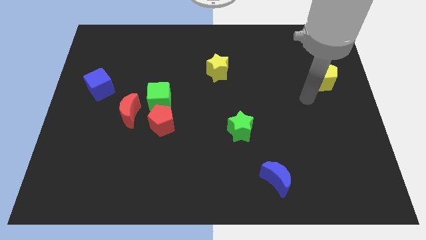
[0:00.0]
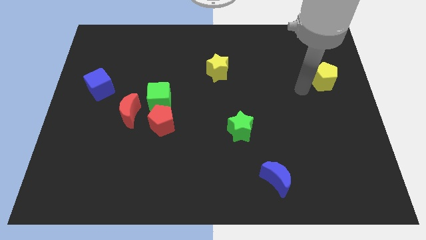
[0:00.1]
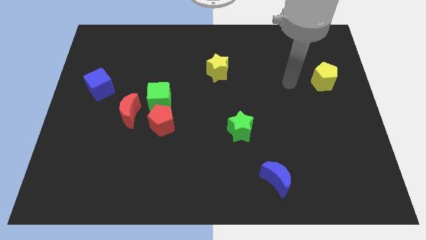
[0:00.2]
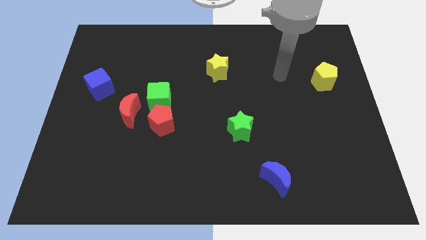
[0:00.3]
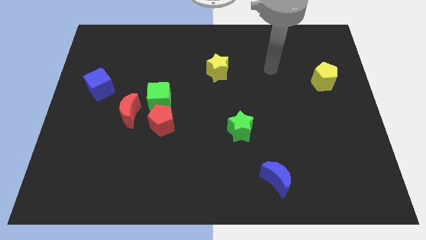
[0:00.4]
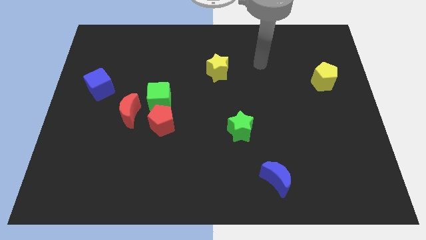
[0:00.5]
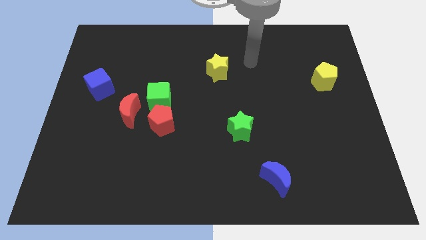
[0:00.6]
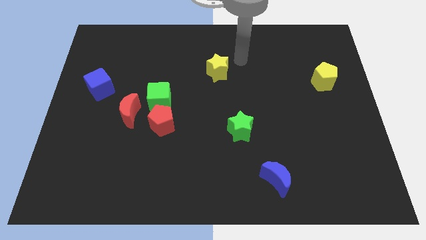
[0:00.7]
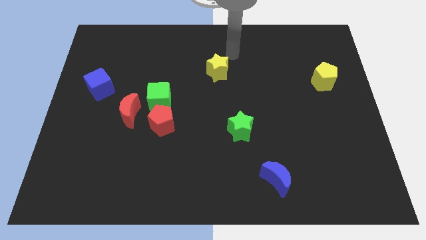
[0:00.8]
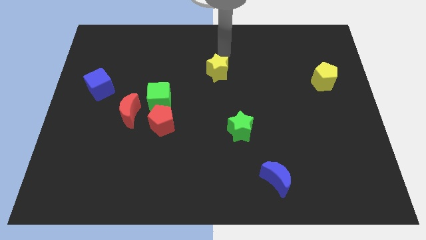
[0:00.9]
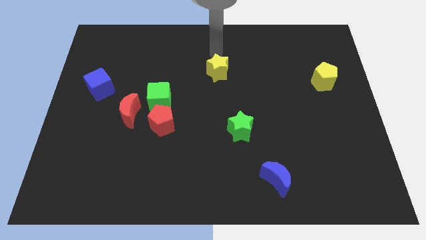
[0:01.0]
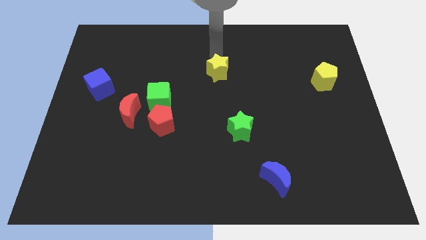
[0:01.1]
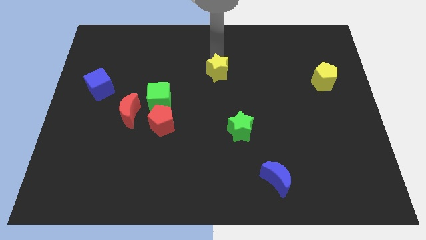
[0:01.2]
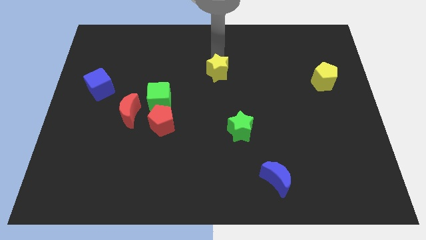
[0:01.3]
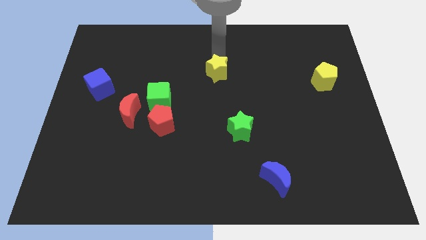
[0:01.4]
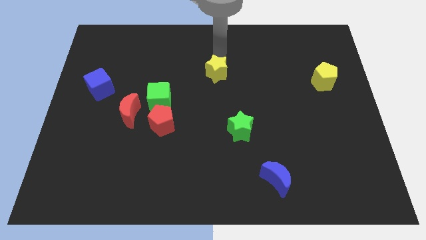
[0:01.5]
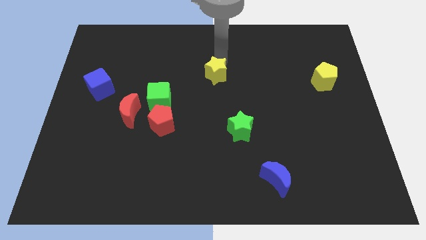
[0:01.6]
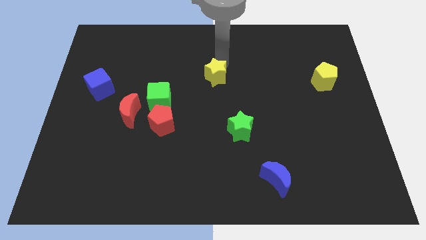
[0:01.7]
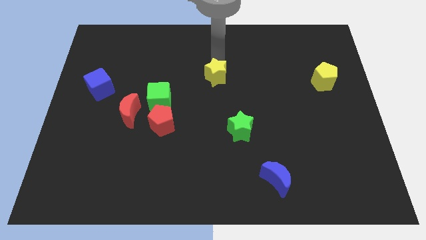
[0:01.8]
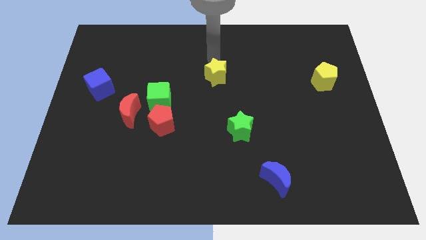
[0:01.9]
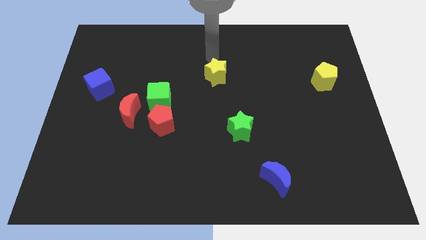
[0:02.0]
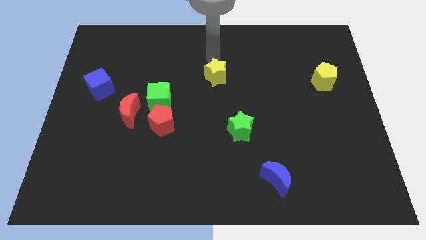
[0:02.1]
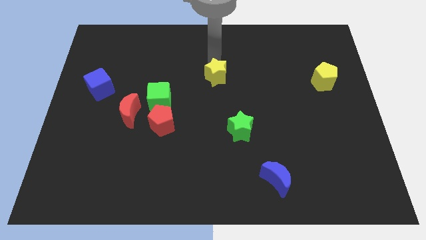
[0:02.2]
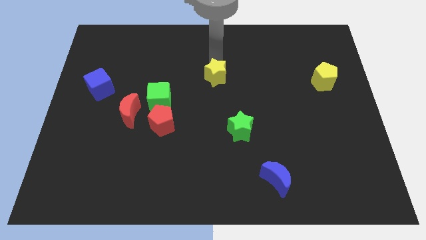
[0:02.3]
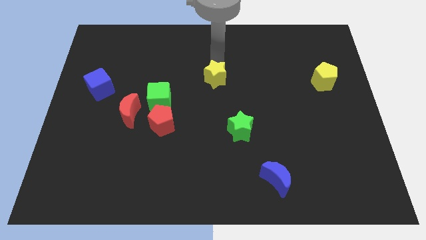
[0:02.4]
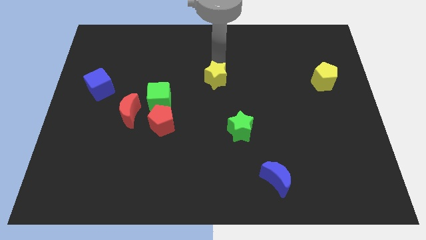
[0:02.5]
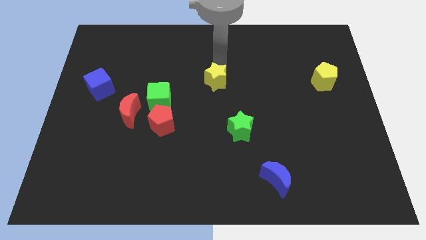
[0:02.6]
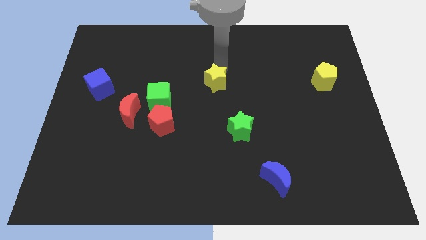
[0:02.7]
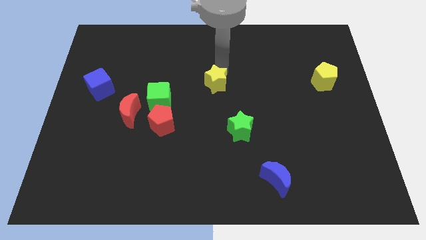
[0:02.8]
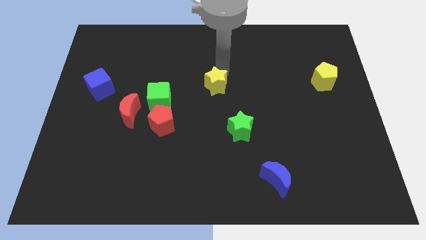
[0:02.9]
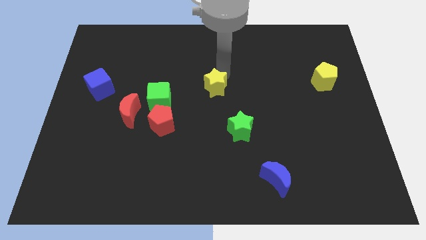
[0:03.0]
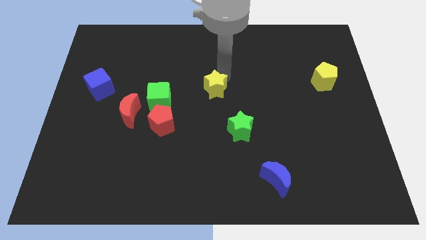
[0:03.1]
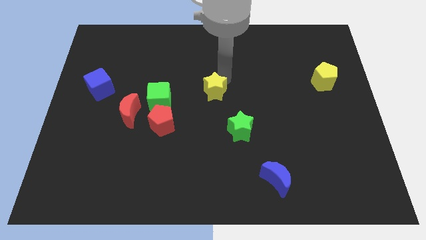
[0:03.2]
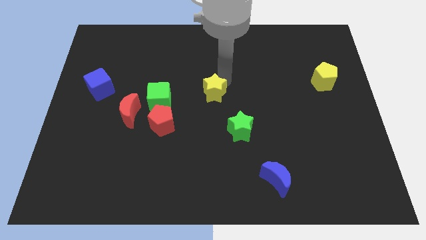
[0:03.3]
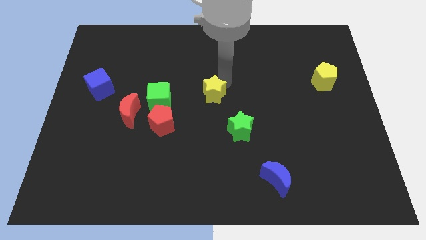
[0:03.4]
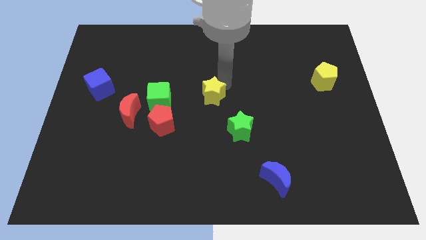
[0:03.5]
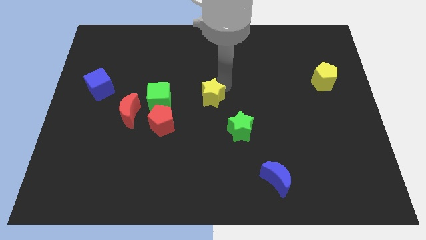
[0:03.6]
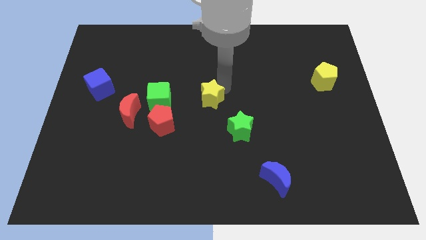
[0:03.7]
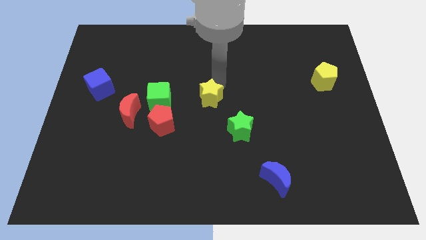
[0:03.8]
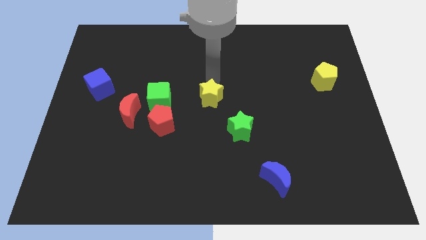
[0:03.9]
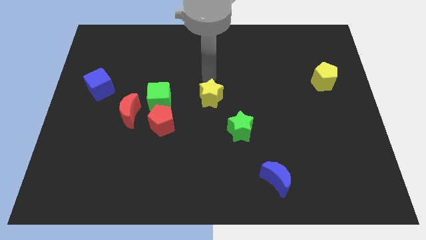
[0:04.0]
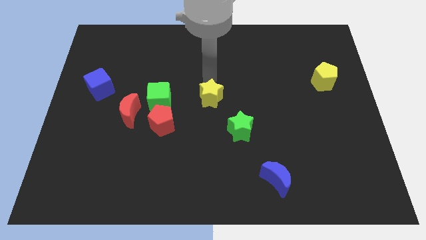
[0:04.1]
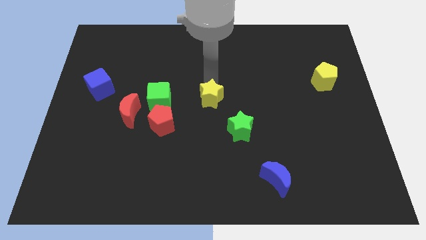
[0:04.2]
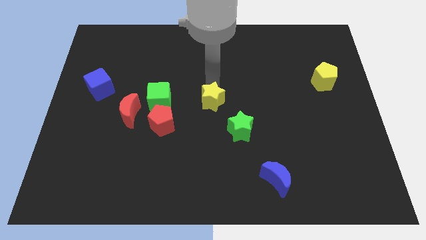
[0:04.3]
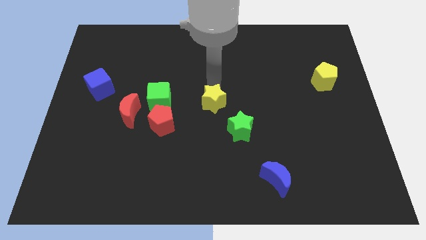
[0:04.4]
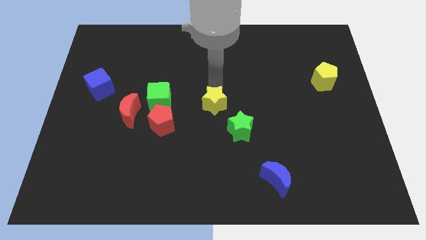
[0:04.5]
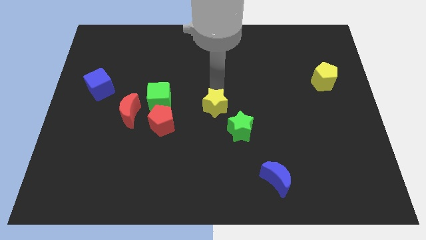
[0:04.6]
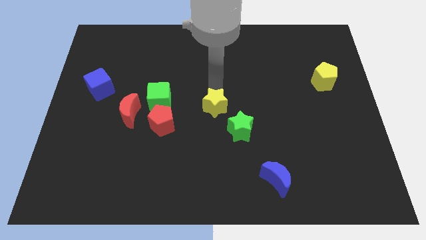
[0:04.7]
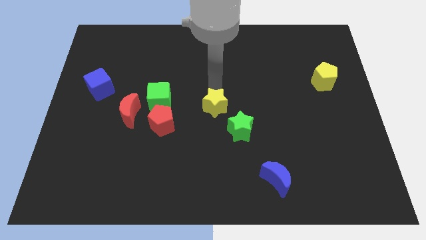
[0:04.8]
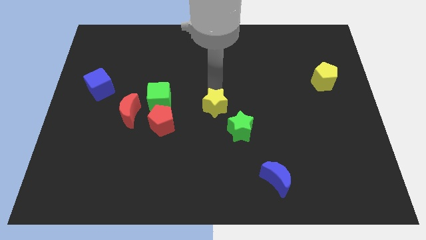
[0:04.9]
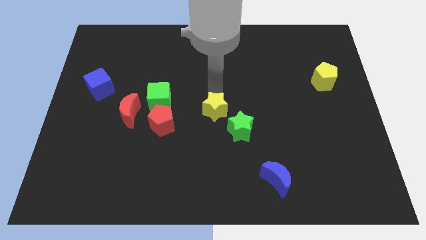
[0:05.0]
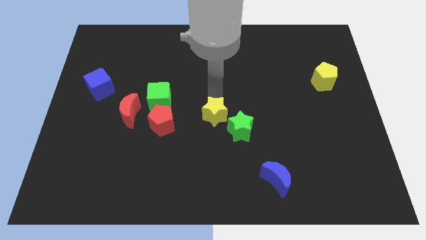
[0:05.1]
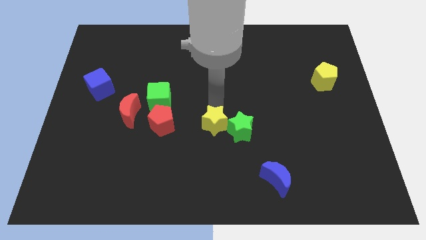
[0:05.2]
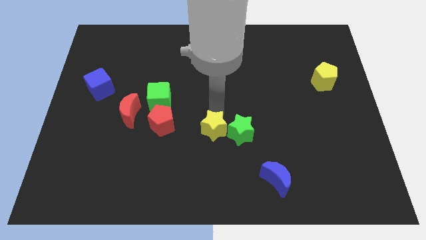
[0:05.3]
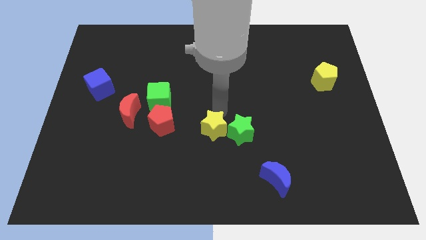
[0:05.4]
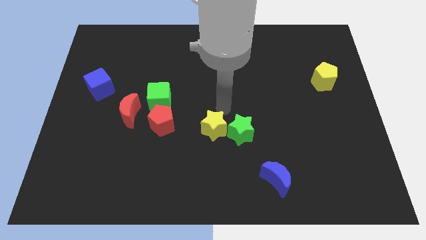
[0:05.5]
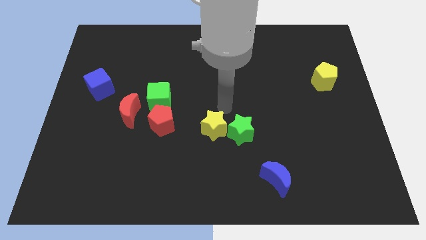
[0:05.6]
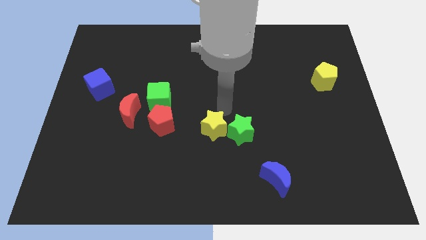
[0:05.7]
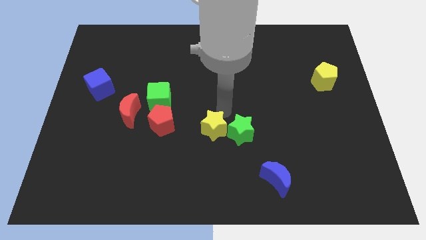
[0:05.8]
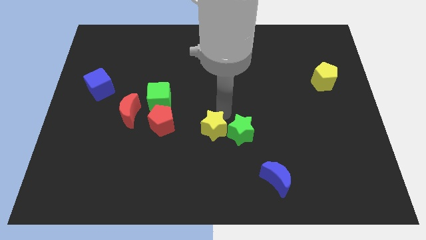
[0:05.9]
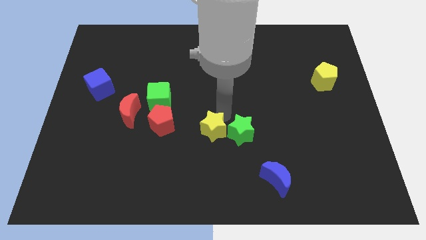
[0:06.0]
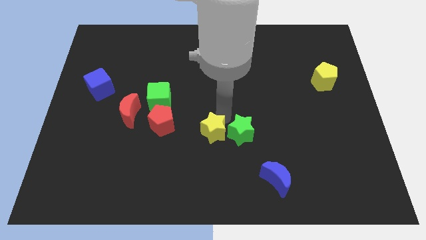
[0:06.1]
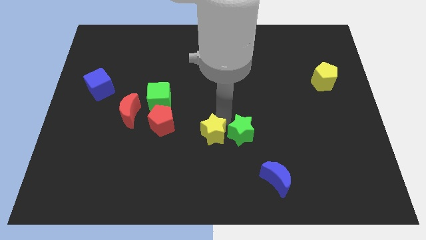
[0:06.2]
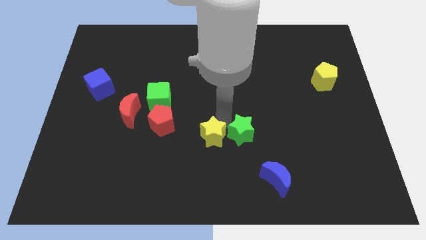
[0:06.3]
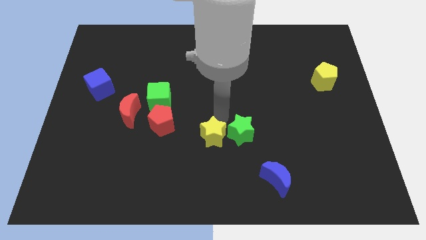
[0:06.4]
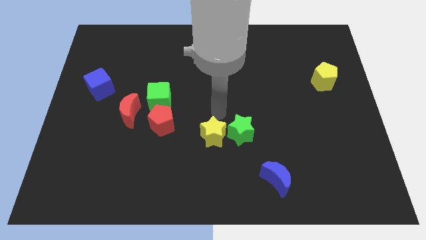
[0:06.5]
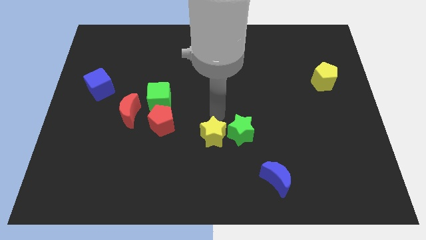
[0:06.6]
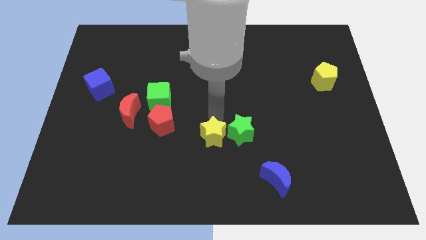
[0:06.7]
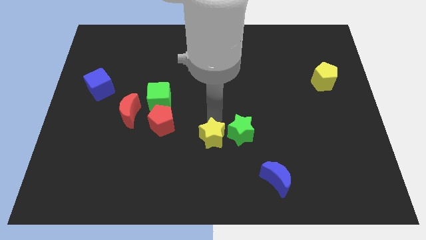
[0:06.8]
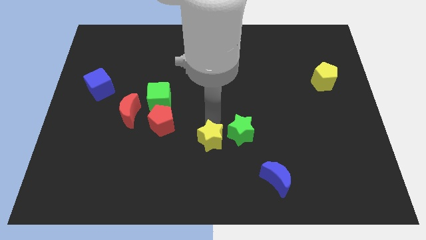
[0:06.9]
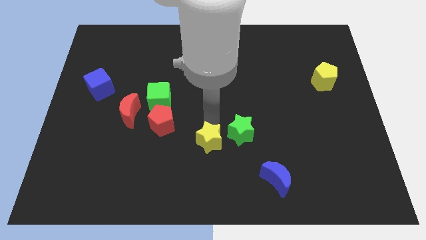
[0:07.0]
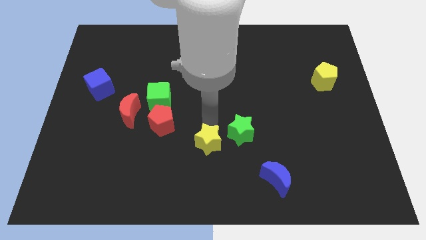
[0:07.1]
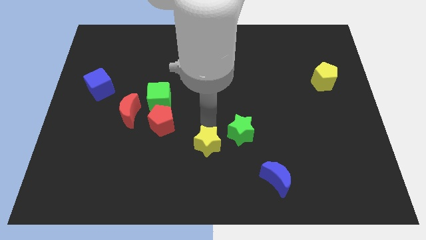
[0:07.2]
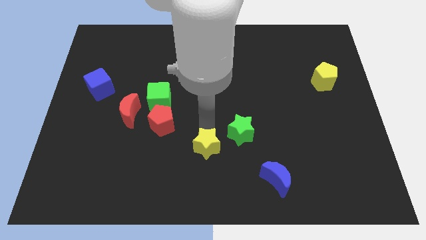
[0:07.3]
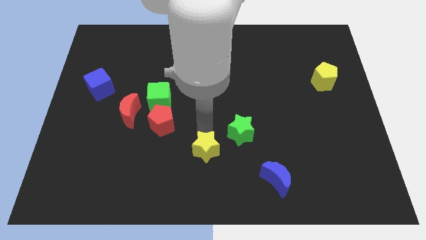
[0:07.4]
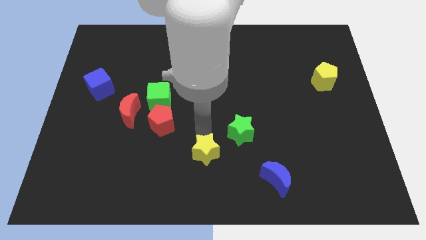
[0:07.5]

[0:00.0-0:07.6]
slide the yellow star to the bottom side
